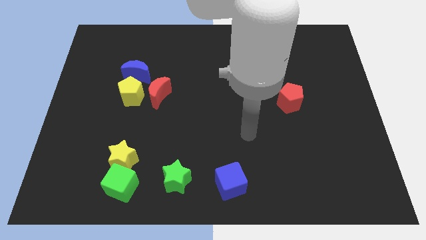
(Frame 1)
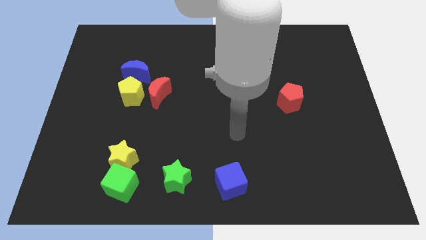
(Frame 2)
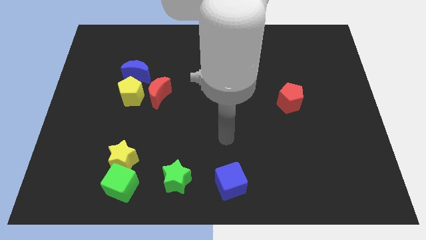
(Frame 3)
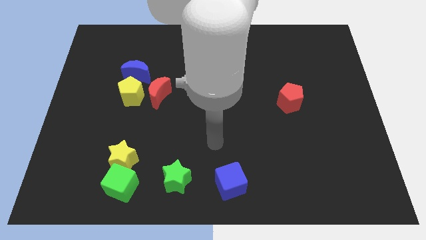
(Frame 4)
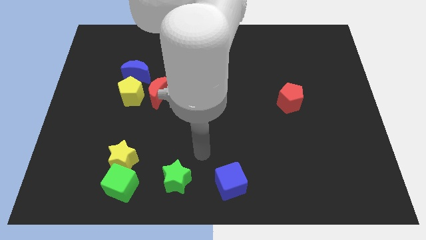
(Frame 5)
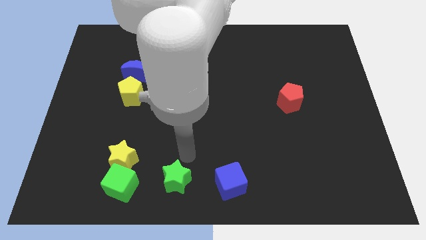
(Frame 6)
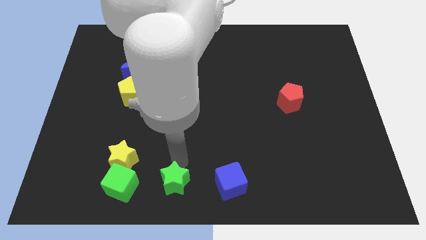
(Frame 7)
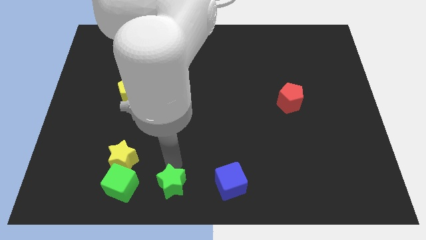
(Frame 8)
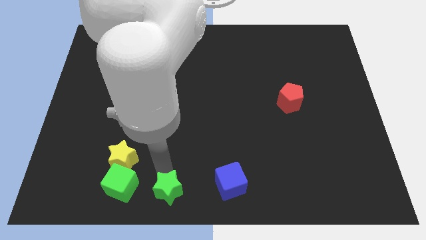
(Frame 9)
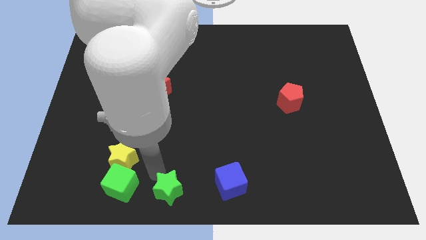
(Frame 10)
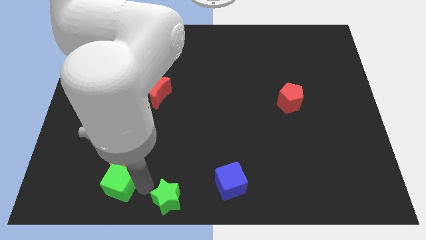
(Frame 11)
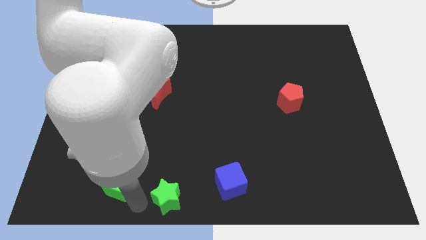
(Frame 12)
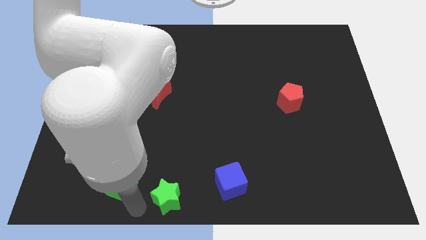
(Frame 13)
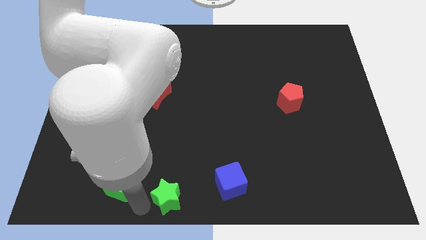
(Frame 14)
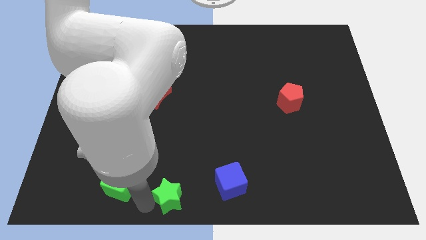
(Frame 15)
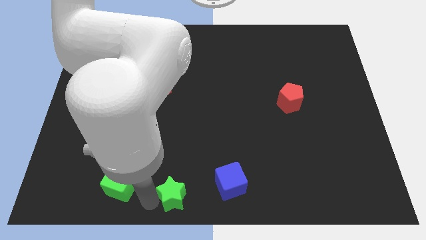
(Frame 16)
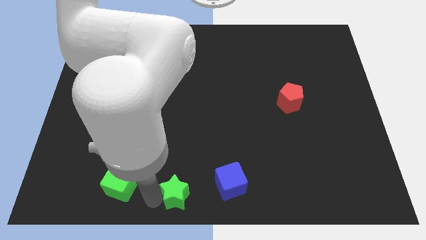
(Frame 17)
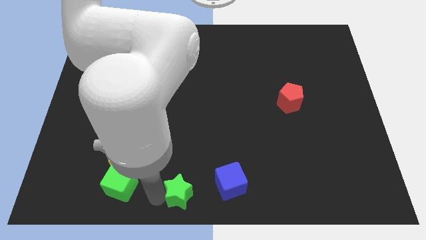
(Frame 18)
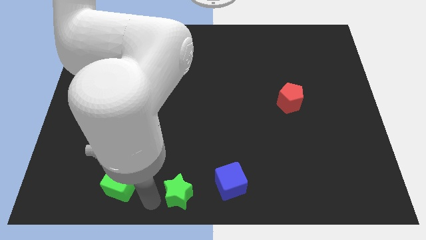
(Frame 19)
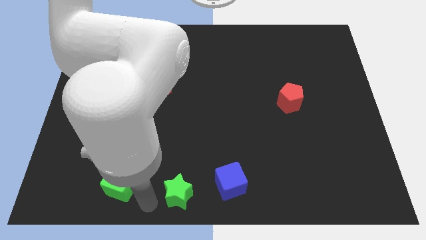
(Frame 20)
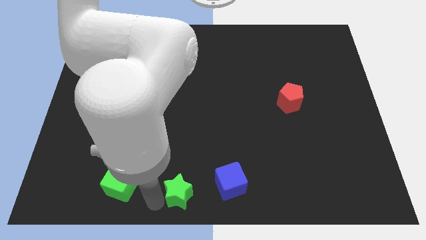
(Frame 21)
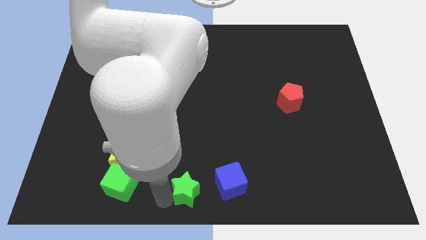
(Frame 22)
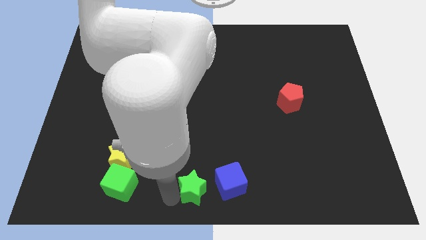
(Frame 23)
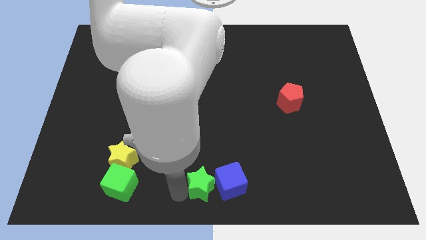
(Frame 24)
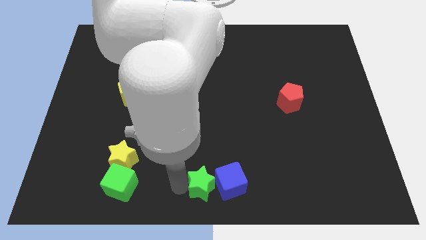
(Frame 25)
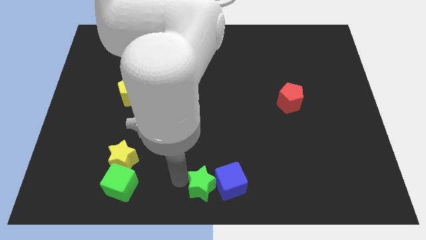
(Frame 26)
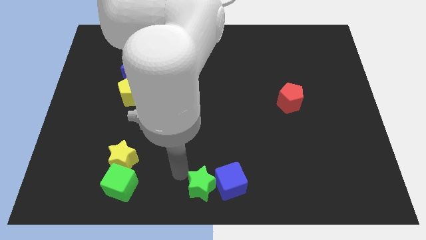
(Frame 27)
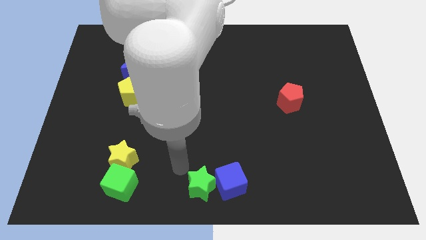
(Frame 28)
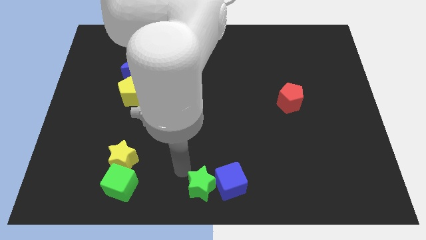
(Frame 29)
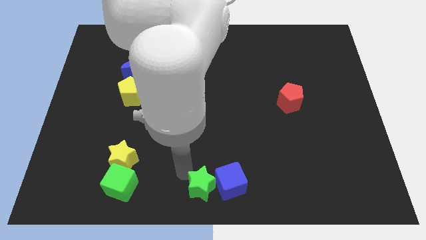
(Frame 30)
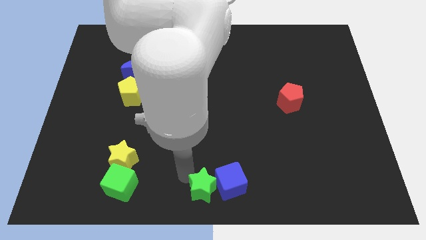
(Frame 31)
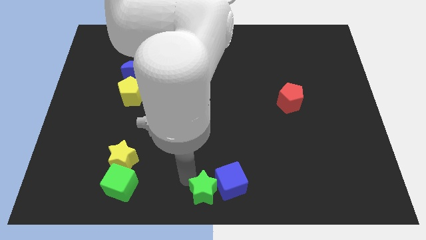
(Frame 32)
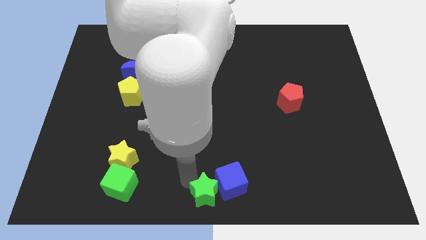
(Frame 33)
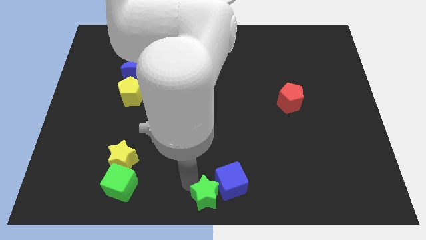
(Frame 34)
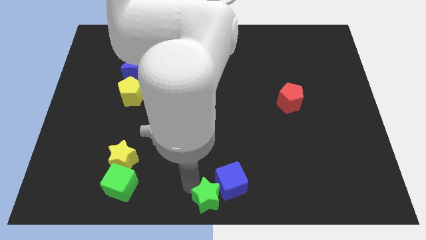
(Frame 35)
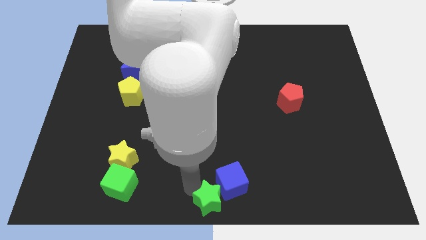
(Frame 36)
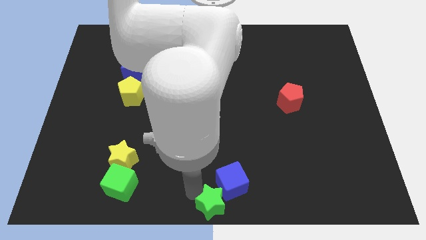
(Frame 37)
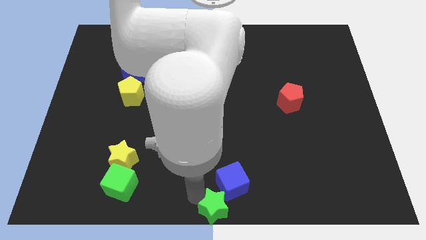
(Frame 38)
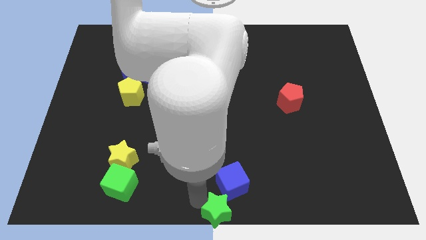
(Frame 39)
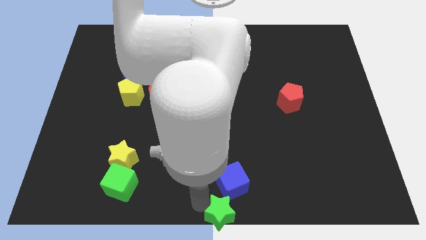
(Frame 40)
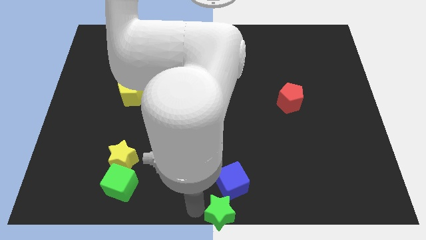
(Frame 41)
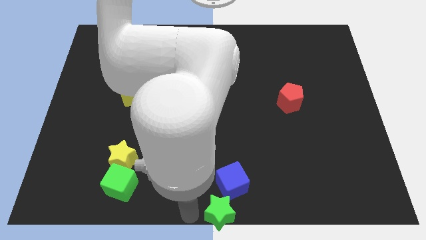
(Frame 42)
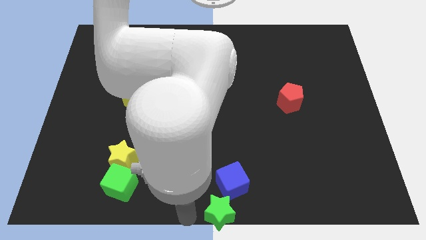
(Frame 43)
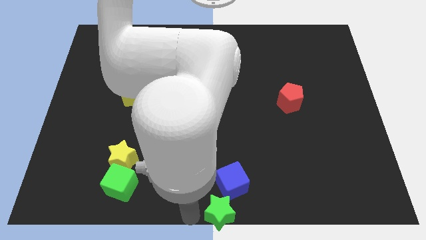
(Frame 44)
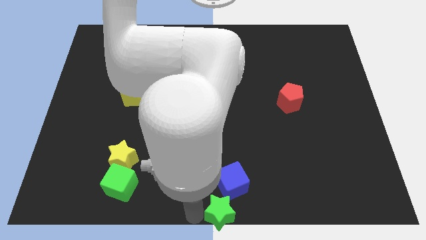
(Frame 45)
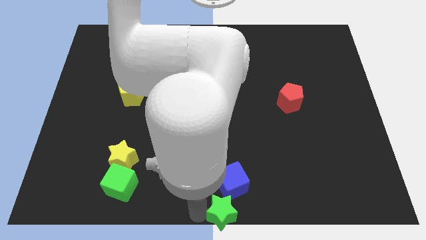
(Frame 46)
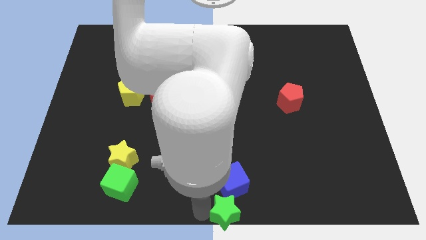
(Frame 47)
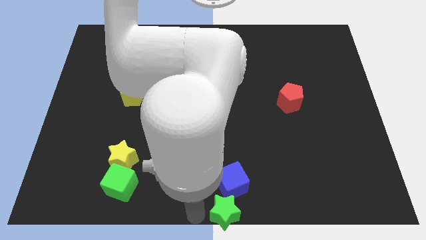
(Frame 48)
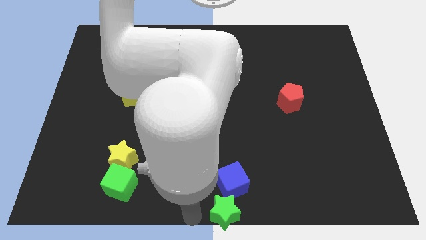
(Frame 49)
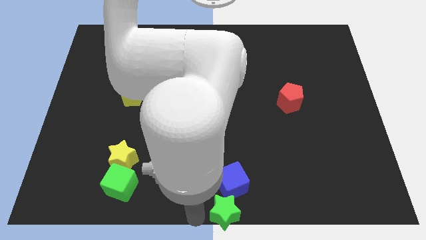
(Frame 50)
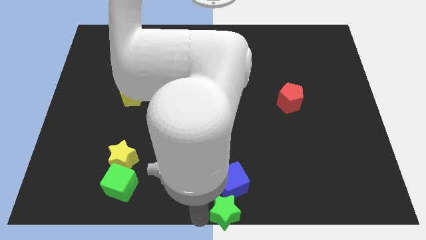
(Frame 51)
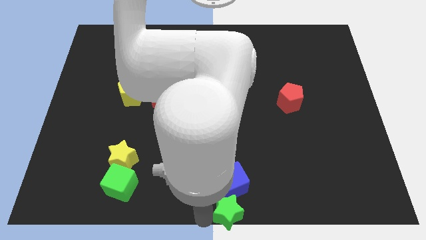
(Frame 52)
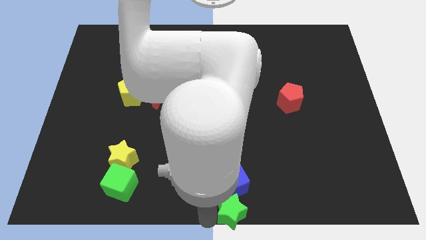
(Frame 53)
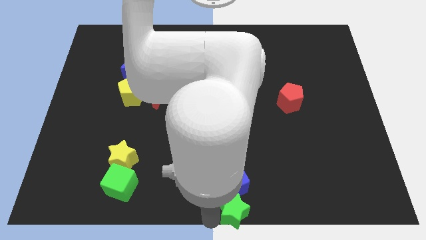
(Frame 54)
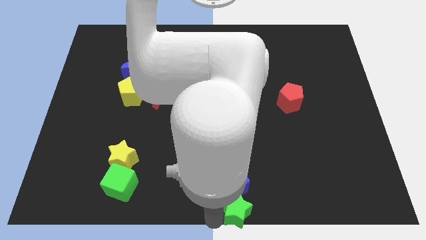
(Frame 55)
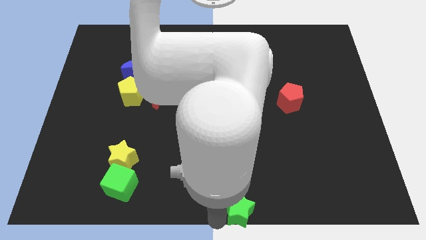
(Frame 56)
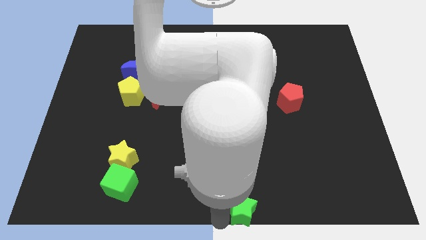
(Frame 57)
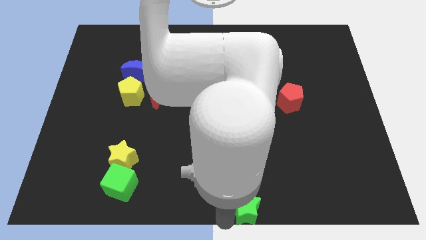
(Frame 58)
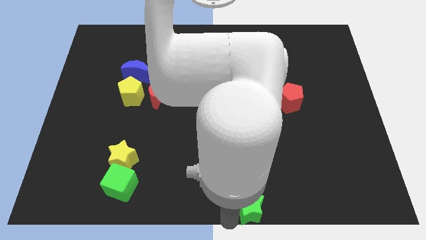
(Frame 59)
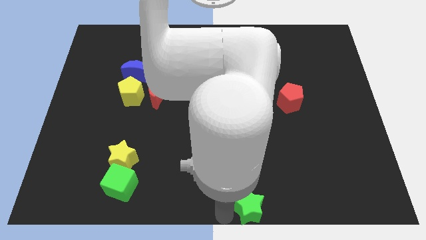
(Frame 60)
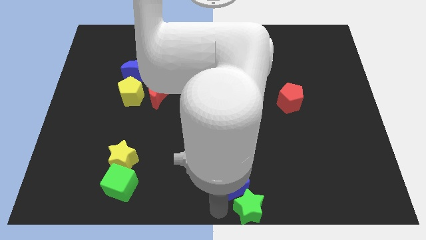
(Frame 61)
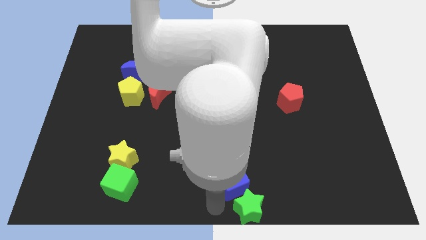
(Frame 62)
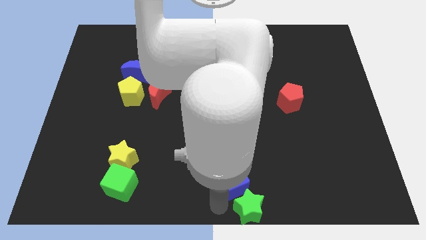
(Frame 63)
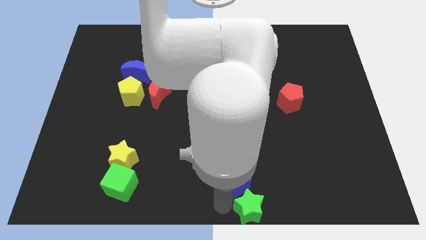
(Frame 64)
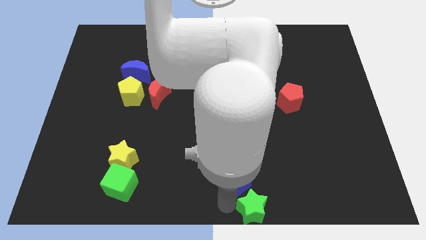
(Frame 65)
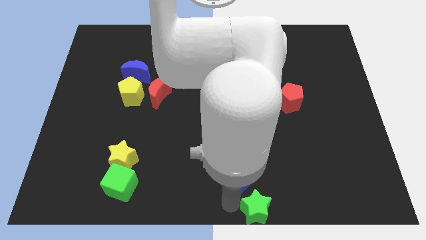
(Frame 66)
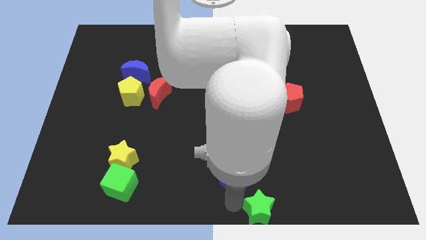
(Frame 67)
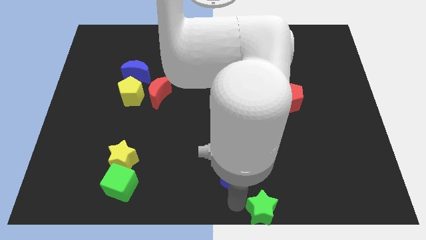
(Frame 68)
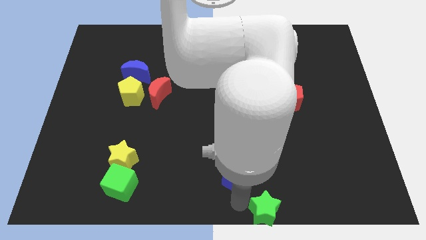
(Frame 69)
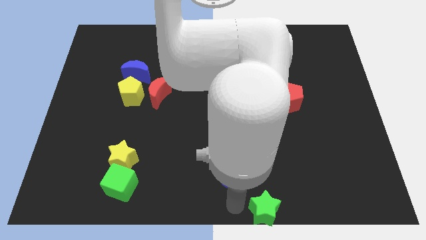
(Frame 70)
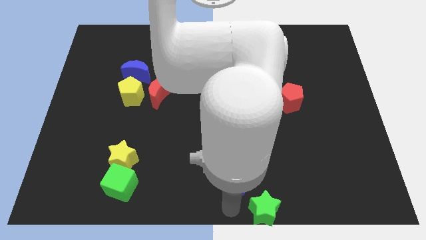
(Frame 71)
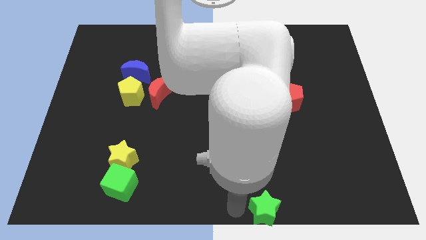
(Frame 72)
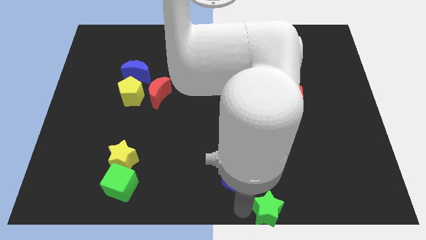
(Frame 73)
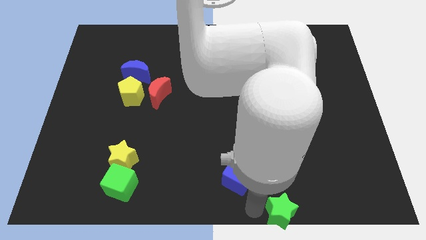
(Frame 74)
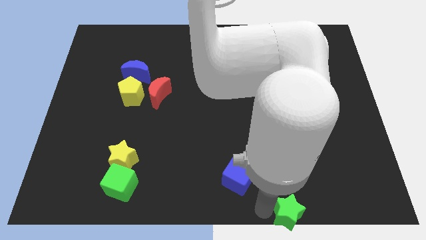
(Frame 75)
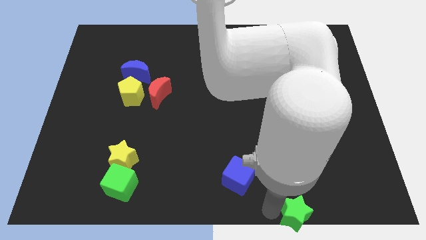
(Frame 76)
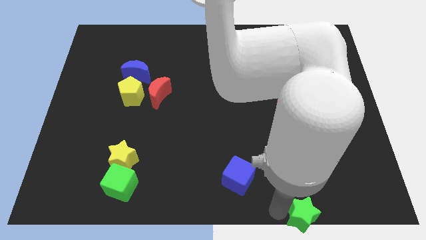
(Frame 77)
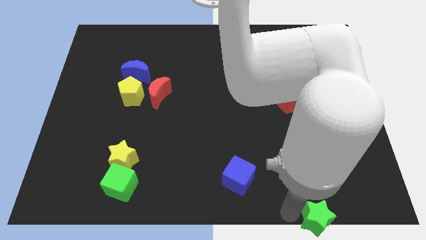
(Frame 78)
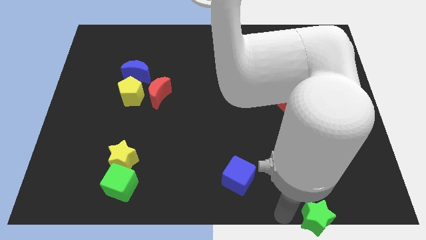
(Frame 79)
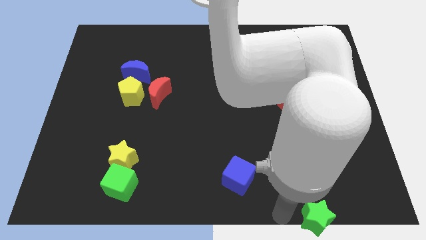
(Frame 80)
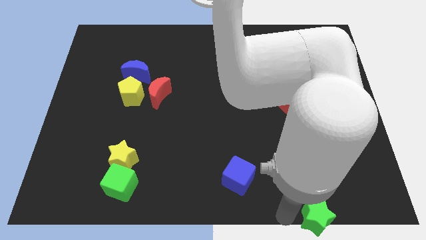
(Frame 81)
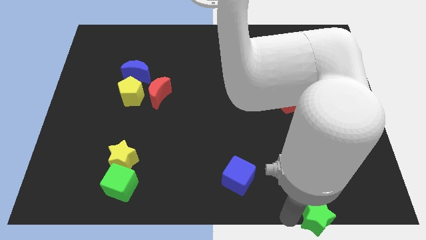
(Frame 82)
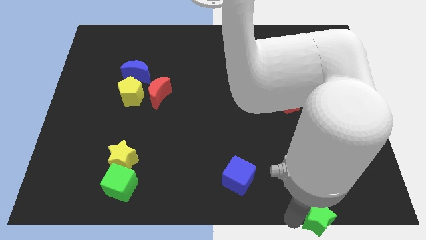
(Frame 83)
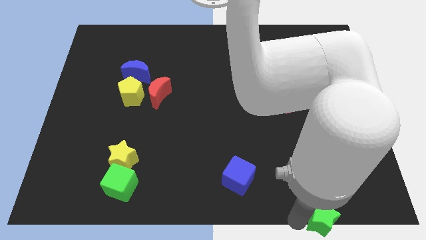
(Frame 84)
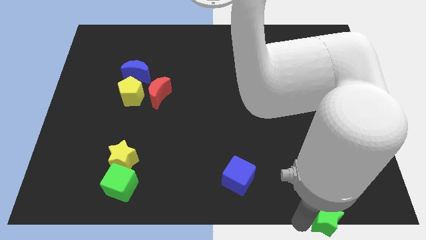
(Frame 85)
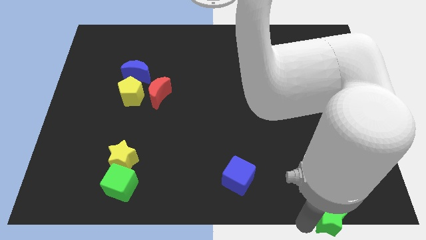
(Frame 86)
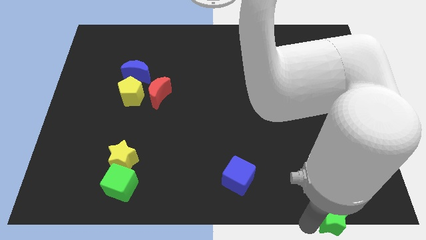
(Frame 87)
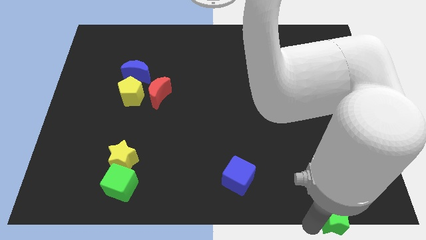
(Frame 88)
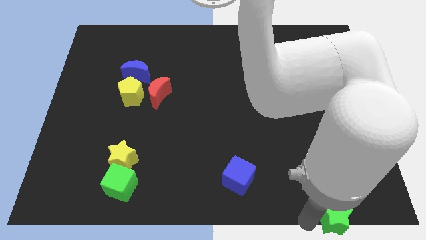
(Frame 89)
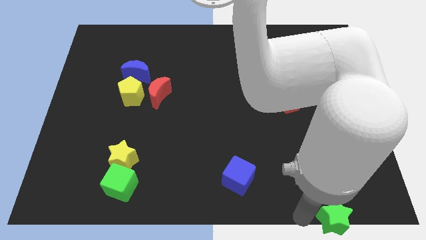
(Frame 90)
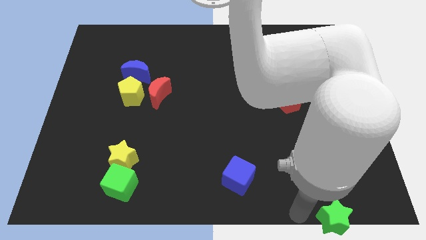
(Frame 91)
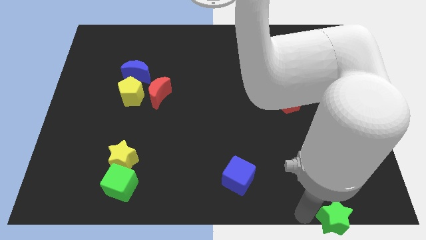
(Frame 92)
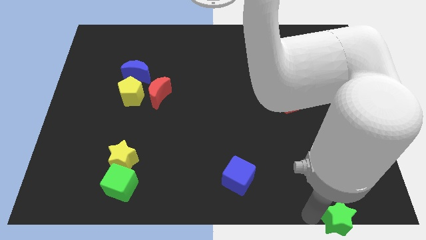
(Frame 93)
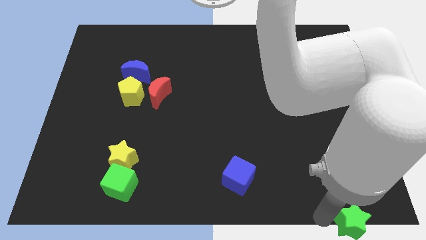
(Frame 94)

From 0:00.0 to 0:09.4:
put the green star to the bottom right of the board
